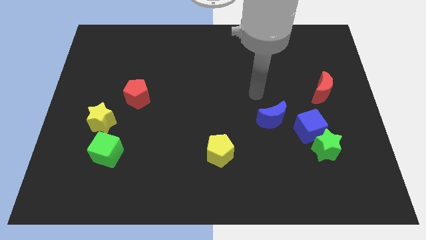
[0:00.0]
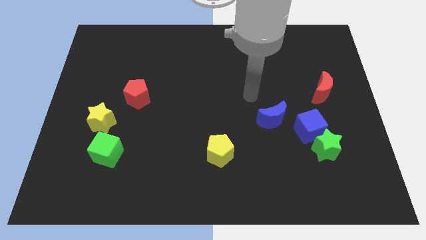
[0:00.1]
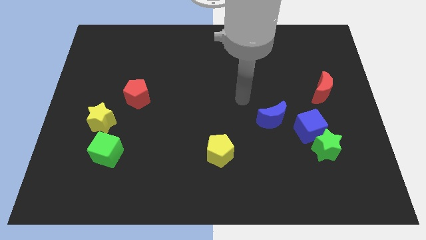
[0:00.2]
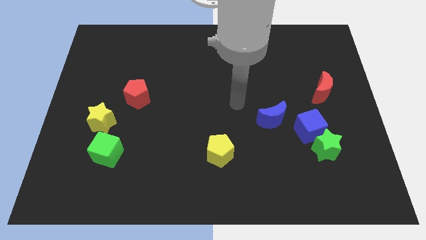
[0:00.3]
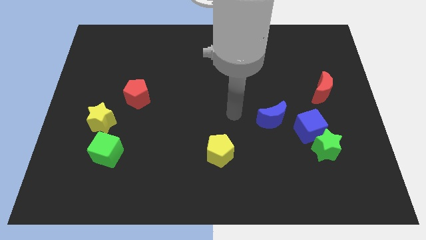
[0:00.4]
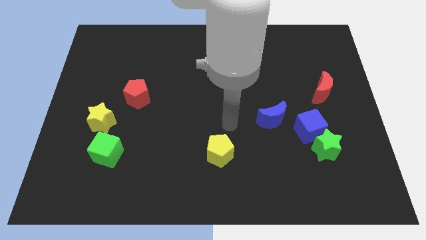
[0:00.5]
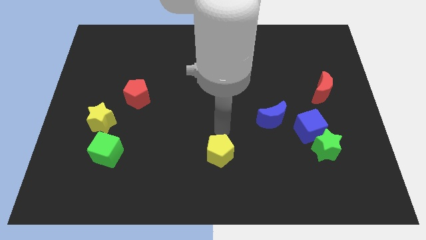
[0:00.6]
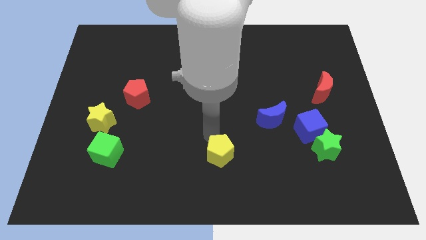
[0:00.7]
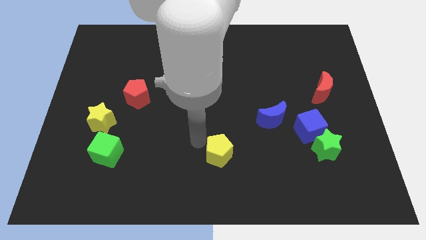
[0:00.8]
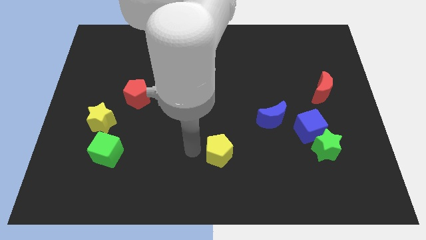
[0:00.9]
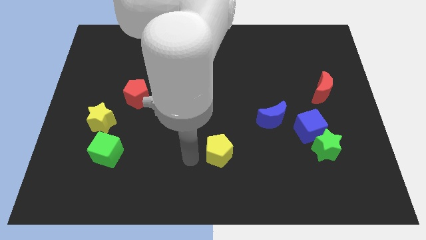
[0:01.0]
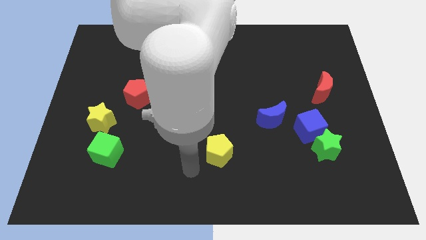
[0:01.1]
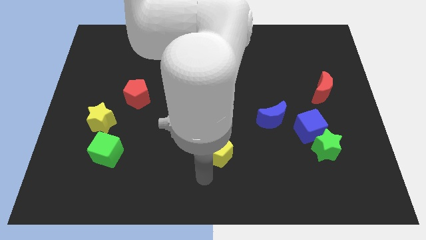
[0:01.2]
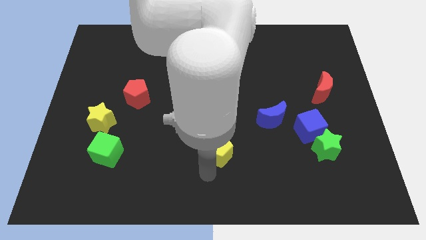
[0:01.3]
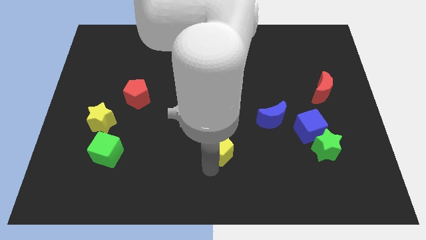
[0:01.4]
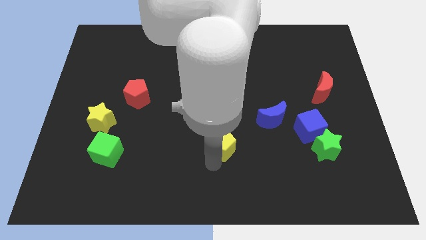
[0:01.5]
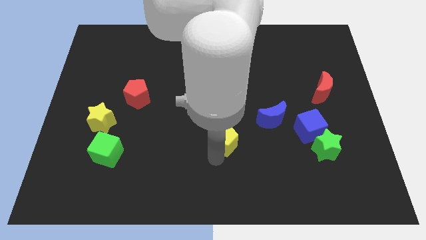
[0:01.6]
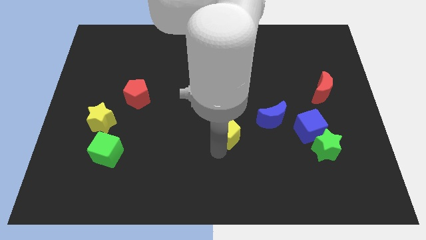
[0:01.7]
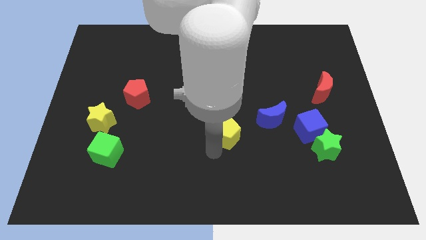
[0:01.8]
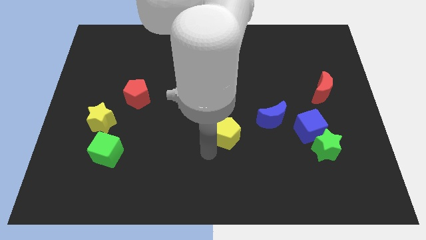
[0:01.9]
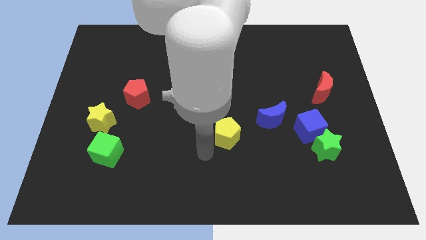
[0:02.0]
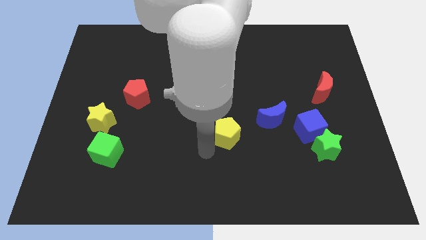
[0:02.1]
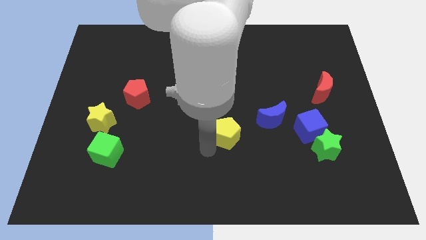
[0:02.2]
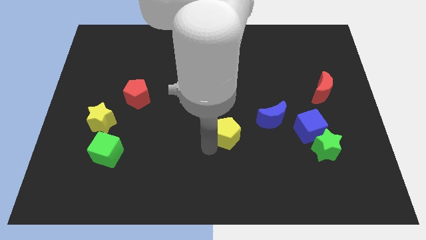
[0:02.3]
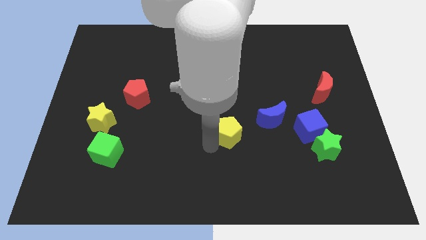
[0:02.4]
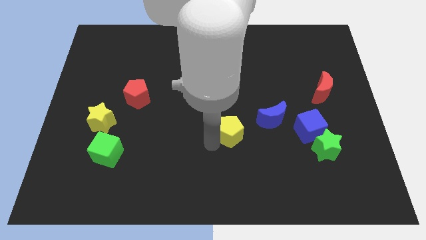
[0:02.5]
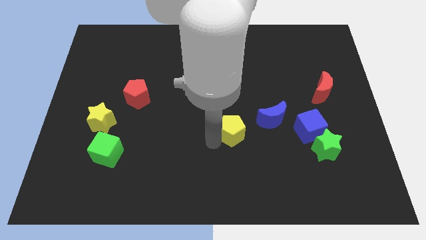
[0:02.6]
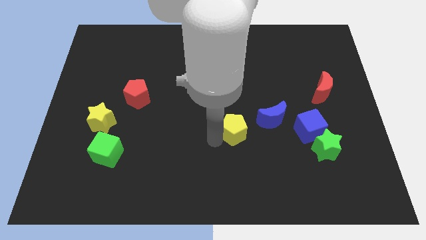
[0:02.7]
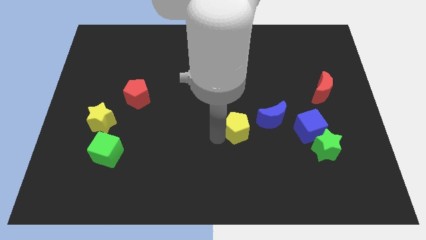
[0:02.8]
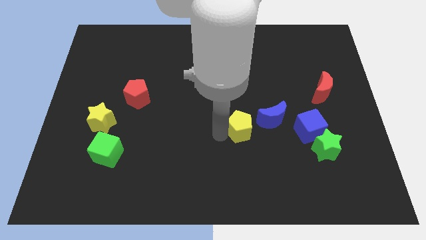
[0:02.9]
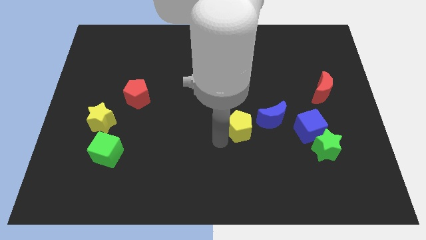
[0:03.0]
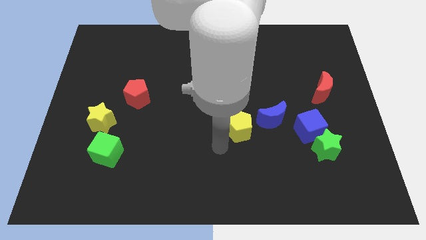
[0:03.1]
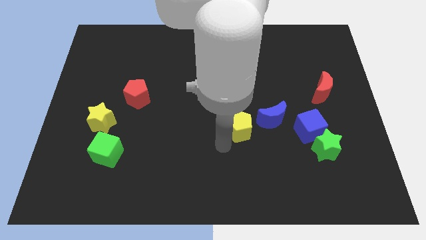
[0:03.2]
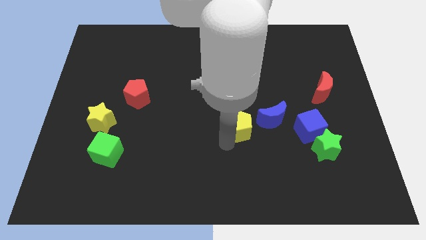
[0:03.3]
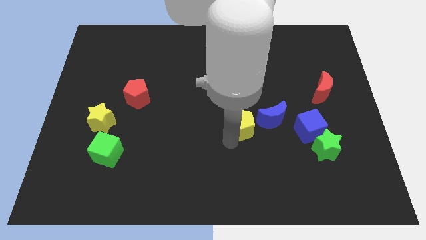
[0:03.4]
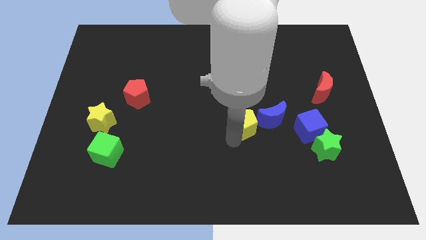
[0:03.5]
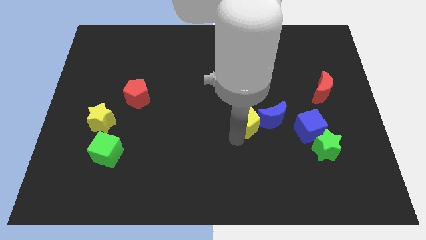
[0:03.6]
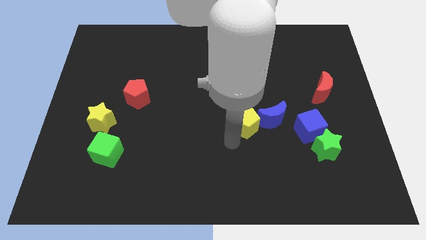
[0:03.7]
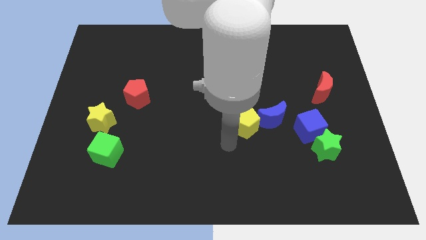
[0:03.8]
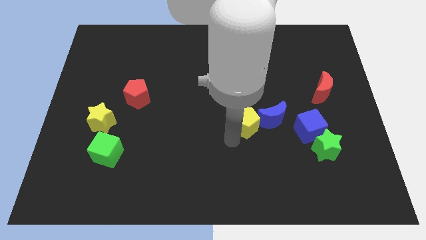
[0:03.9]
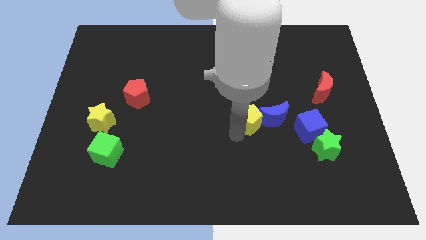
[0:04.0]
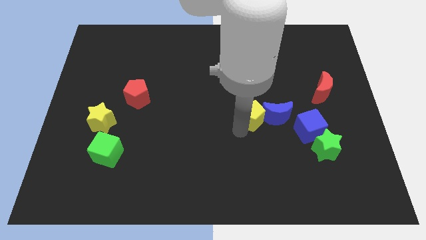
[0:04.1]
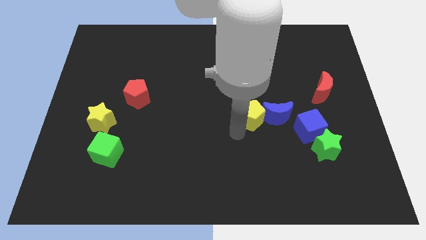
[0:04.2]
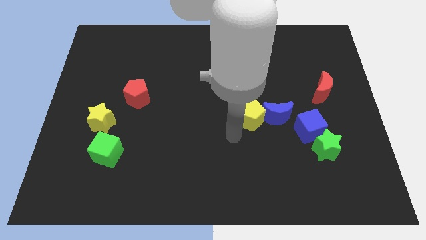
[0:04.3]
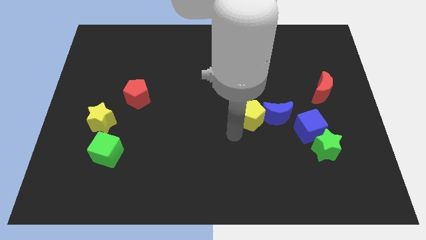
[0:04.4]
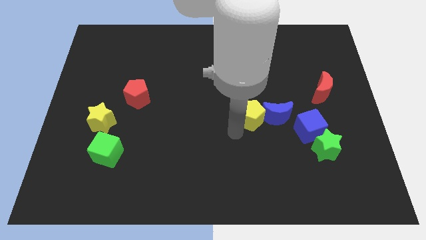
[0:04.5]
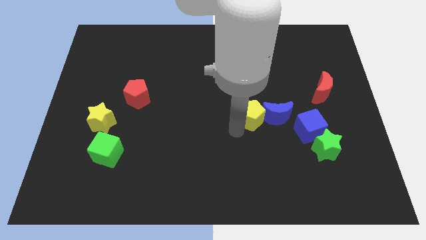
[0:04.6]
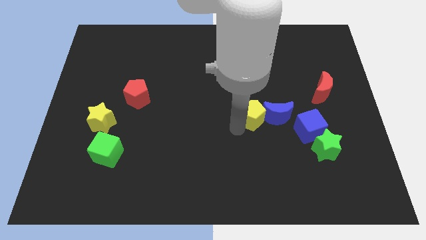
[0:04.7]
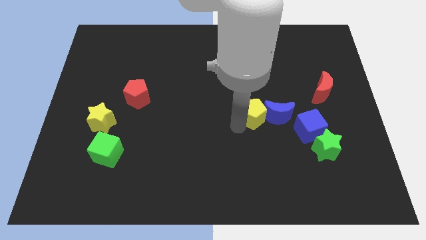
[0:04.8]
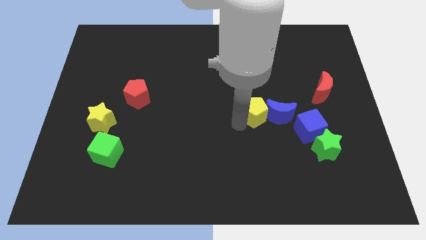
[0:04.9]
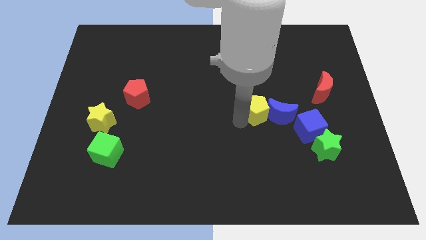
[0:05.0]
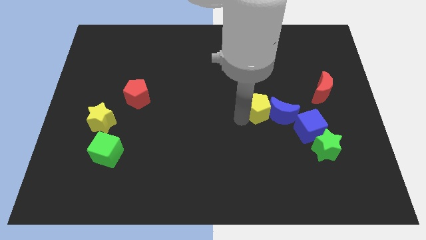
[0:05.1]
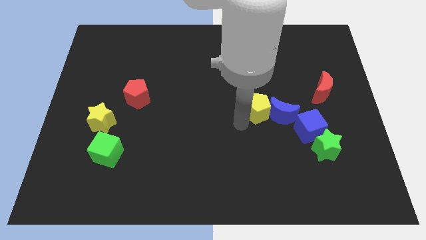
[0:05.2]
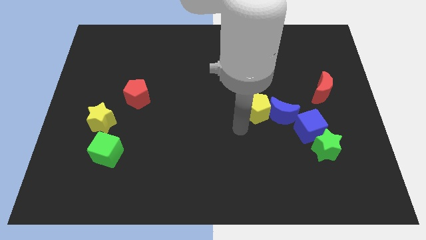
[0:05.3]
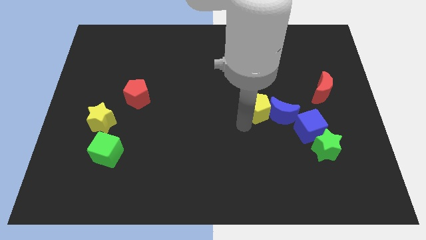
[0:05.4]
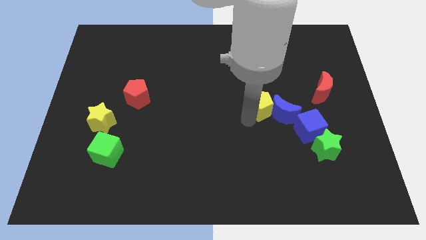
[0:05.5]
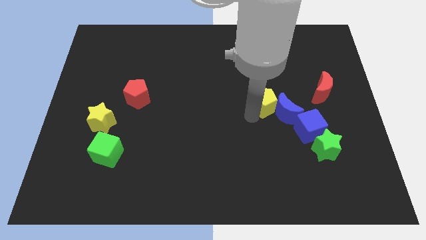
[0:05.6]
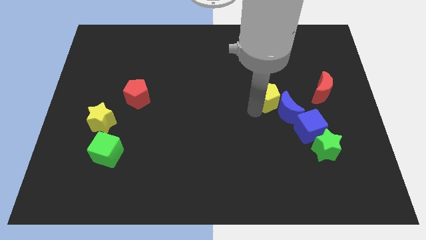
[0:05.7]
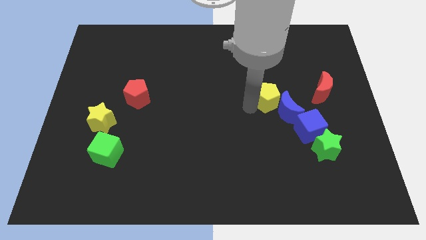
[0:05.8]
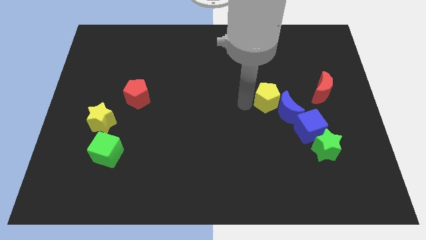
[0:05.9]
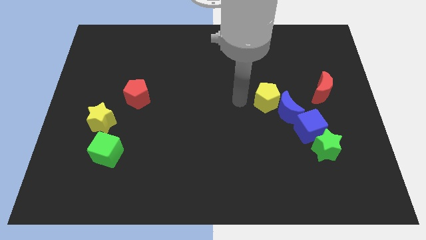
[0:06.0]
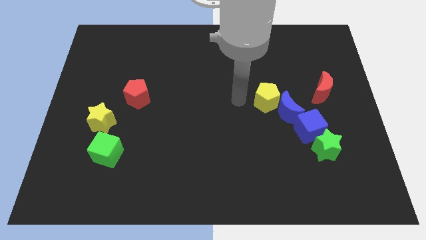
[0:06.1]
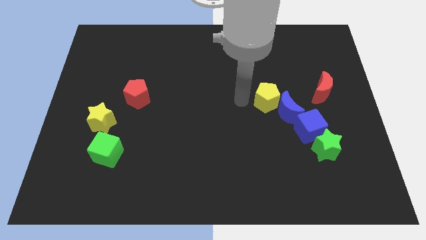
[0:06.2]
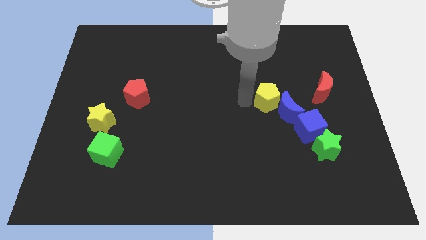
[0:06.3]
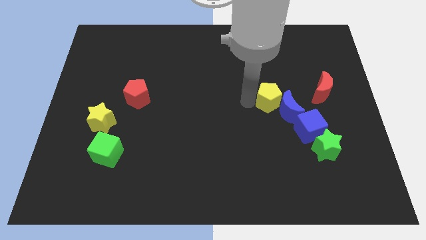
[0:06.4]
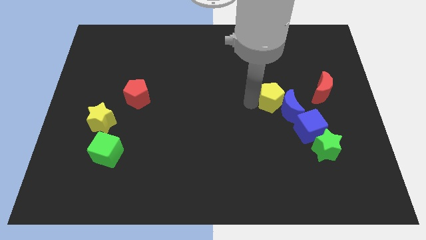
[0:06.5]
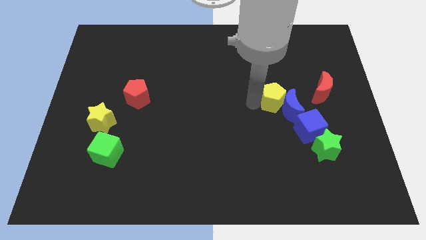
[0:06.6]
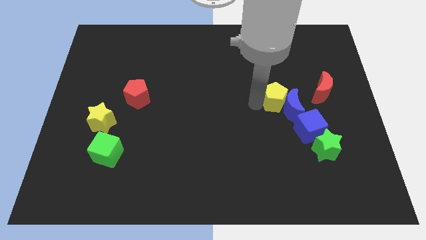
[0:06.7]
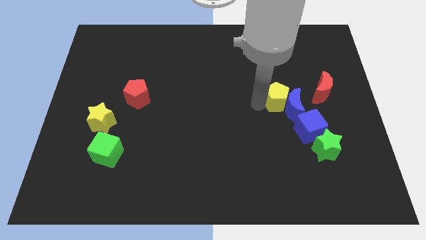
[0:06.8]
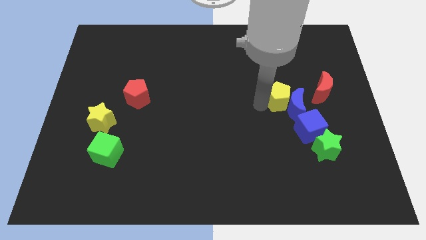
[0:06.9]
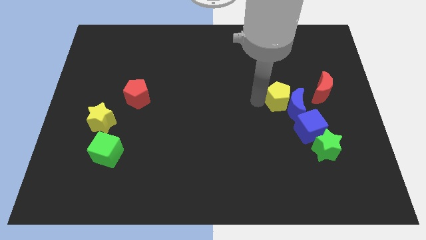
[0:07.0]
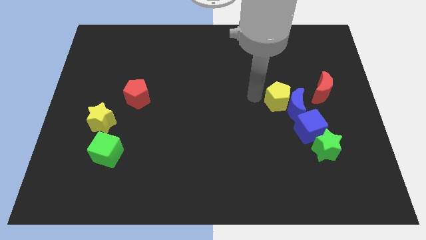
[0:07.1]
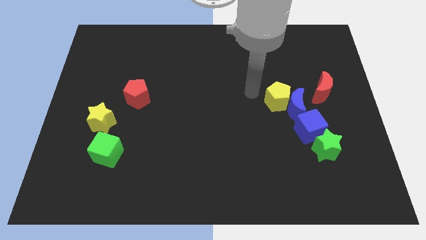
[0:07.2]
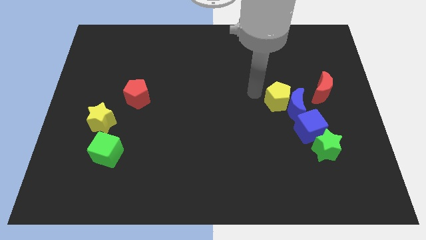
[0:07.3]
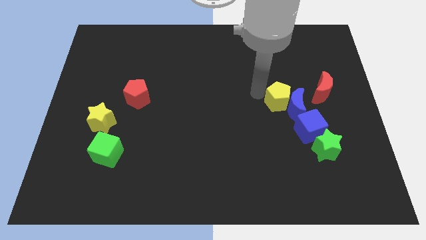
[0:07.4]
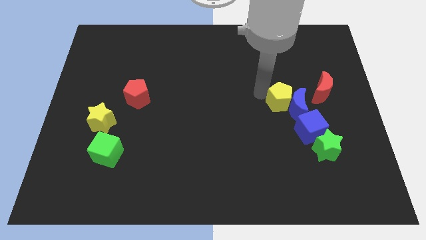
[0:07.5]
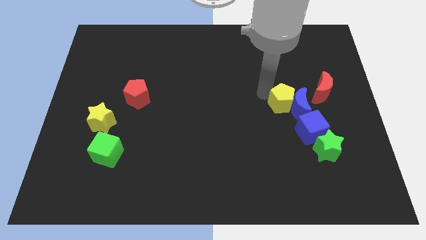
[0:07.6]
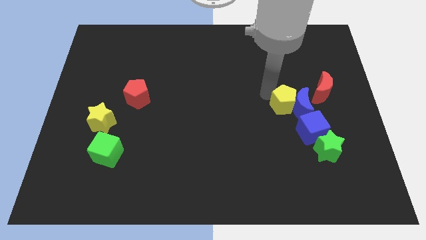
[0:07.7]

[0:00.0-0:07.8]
push the yellow pentagon to the bottom left of the red moon
